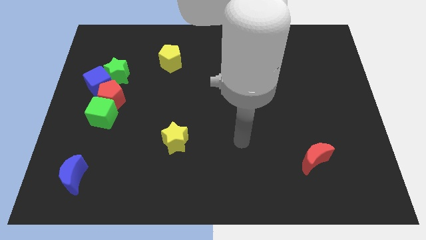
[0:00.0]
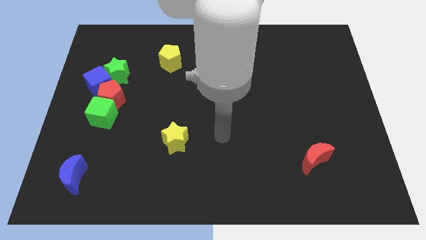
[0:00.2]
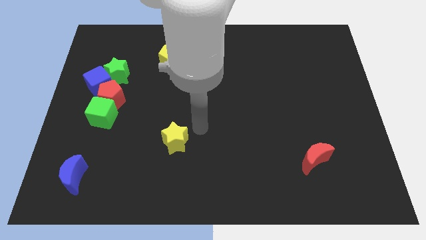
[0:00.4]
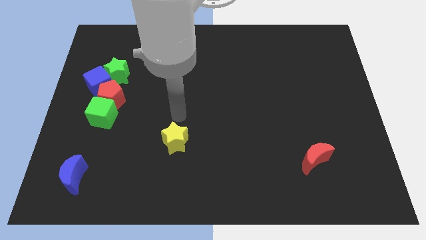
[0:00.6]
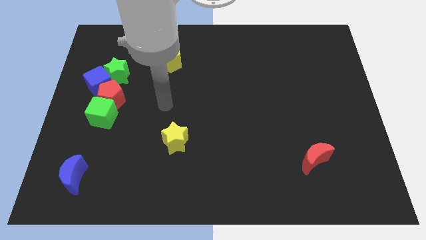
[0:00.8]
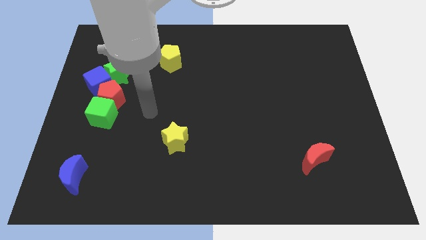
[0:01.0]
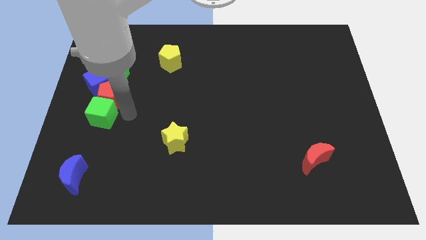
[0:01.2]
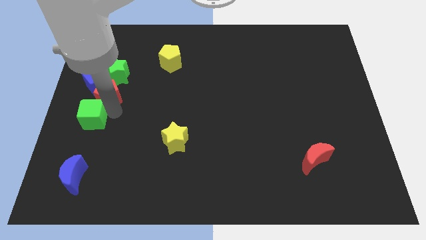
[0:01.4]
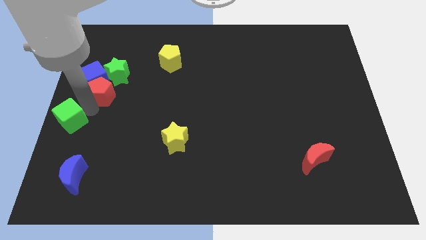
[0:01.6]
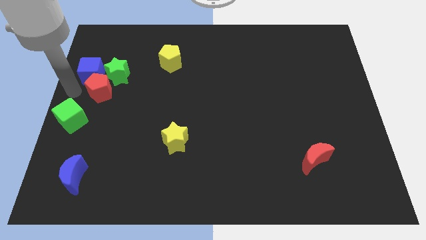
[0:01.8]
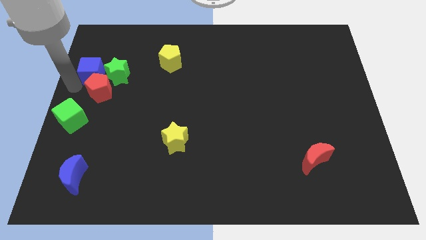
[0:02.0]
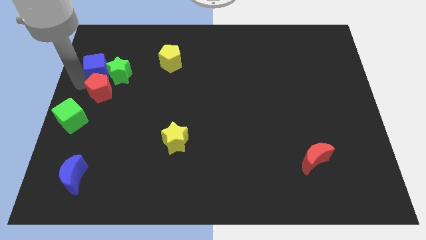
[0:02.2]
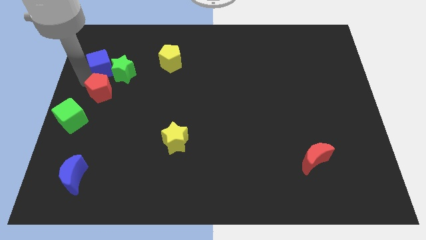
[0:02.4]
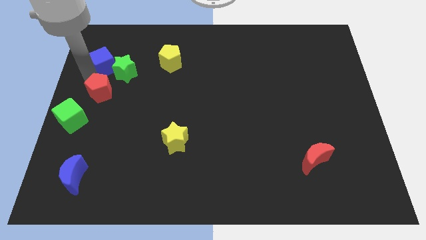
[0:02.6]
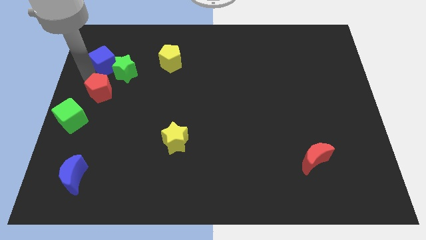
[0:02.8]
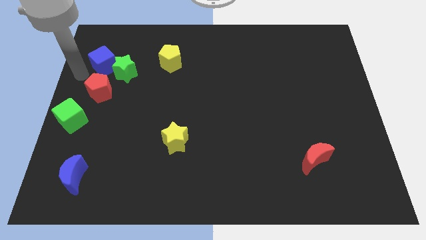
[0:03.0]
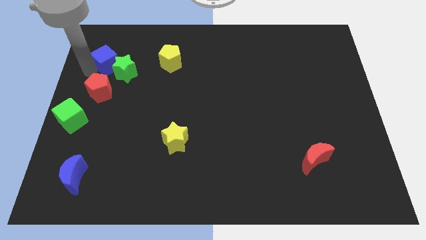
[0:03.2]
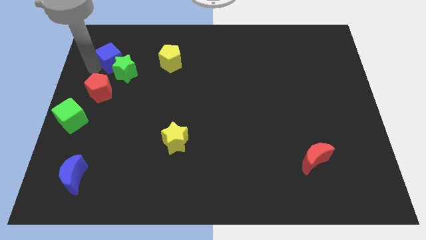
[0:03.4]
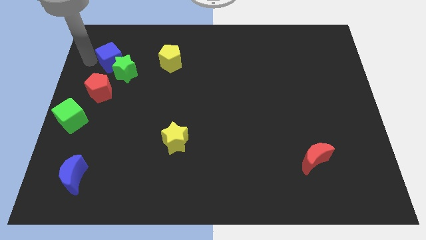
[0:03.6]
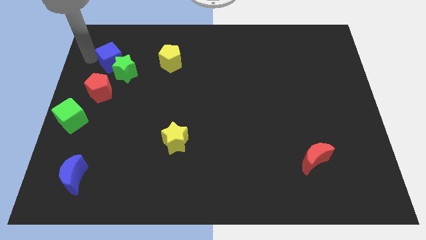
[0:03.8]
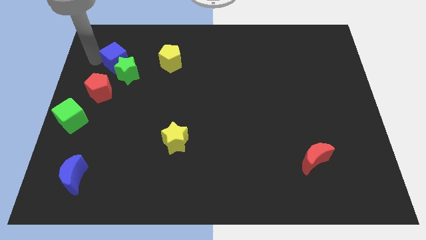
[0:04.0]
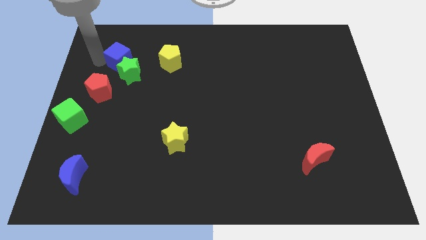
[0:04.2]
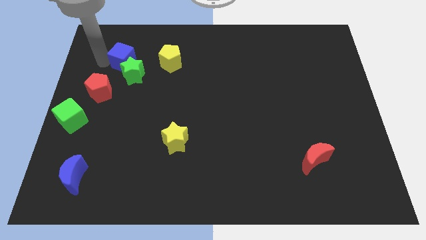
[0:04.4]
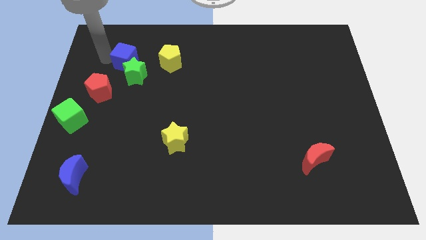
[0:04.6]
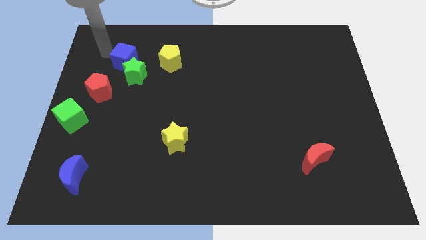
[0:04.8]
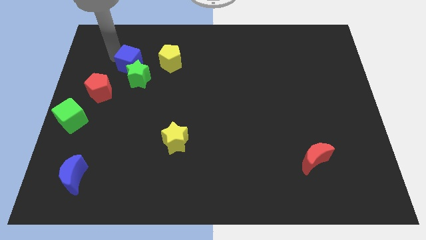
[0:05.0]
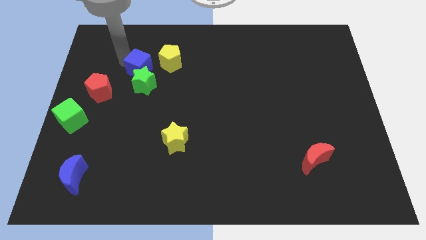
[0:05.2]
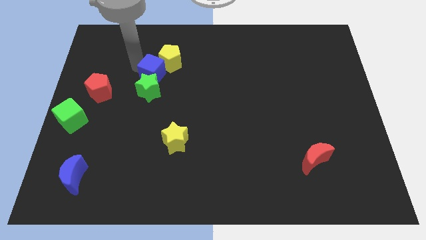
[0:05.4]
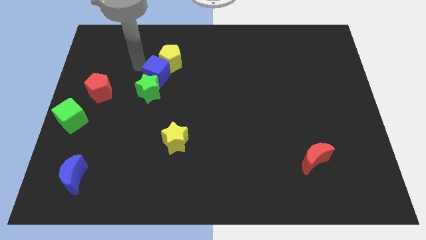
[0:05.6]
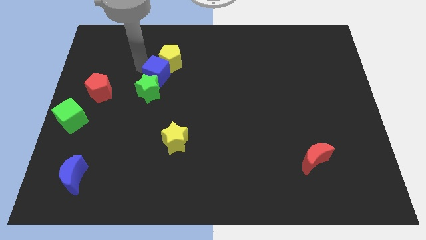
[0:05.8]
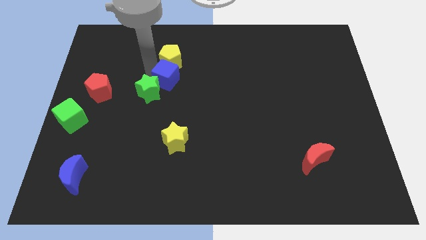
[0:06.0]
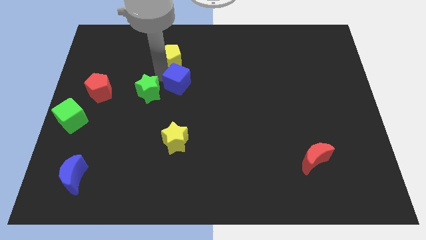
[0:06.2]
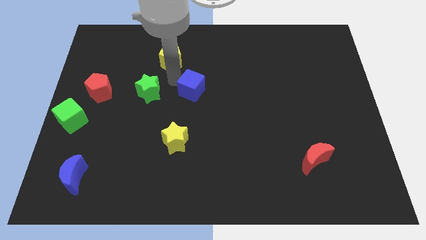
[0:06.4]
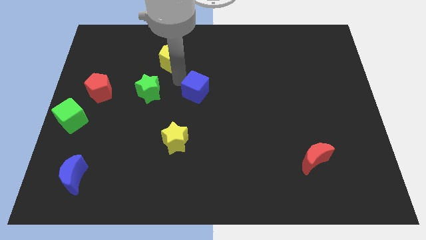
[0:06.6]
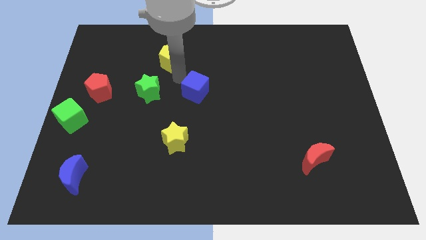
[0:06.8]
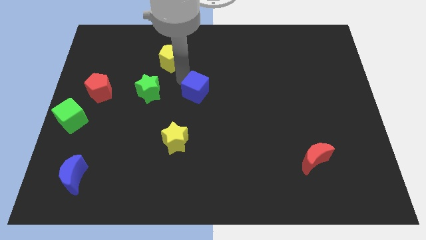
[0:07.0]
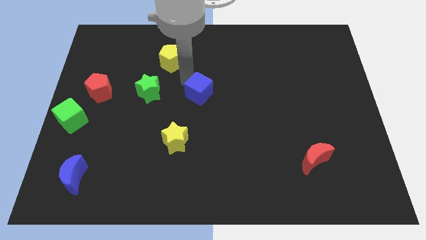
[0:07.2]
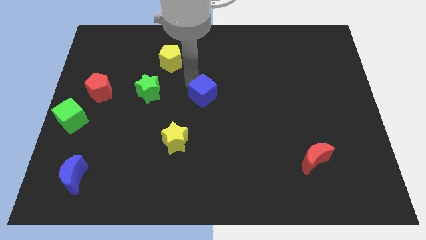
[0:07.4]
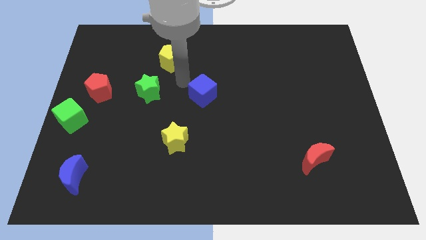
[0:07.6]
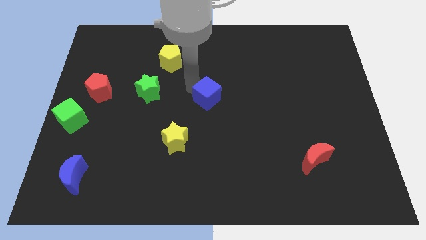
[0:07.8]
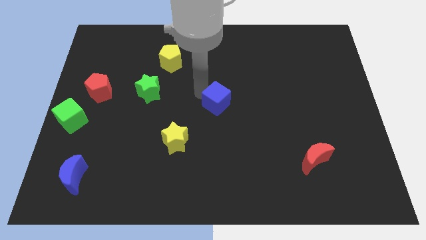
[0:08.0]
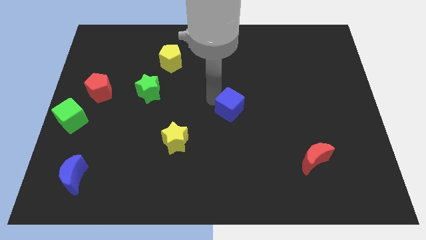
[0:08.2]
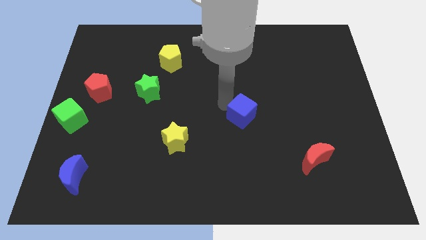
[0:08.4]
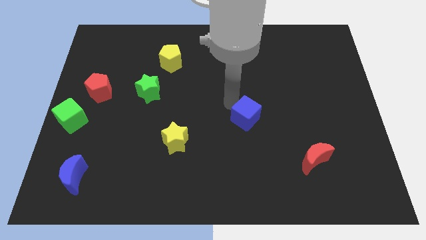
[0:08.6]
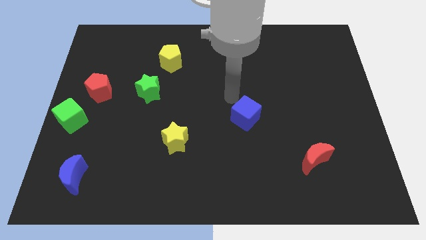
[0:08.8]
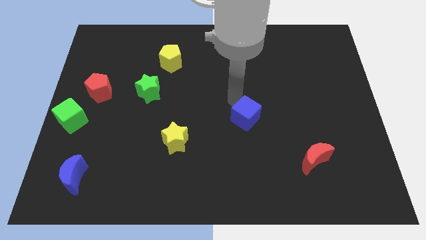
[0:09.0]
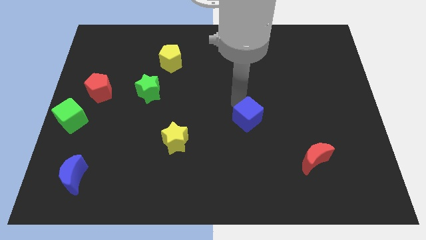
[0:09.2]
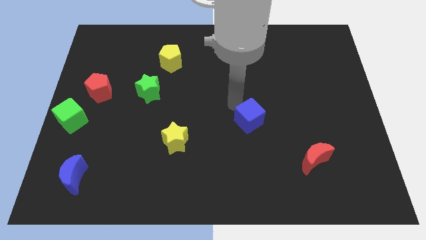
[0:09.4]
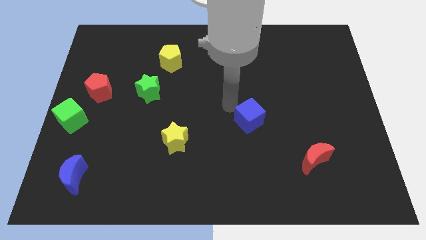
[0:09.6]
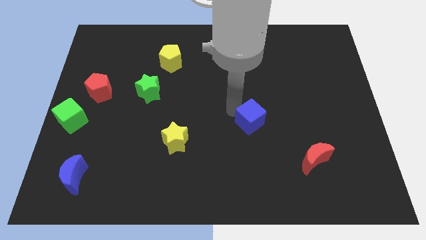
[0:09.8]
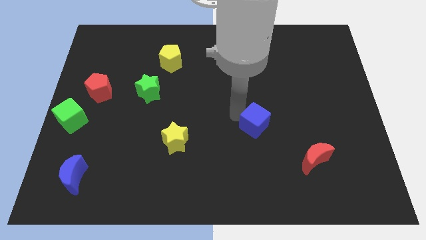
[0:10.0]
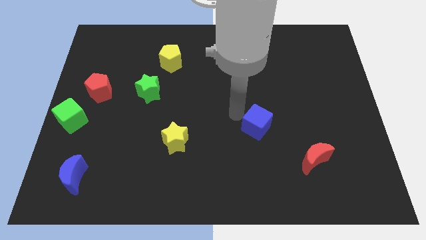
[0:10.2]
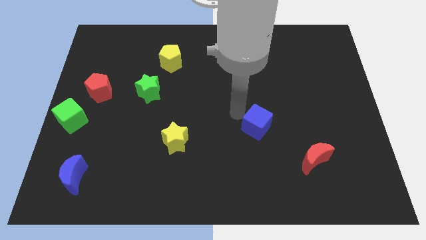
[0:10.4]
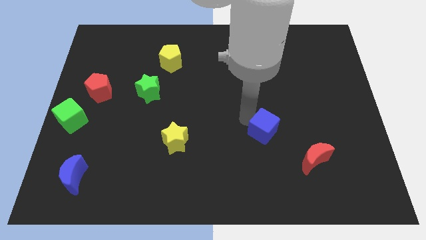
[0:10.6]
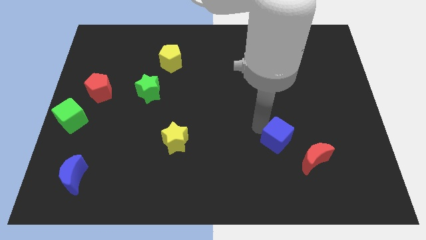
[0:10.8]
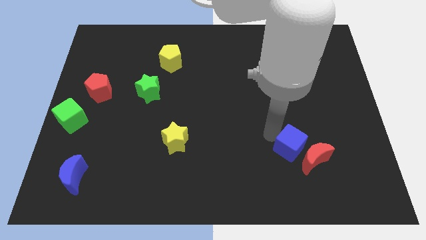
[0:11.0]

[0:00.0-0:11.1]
put the blue cube towards the red moon

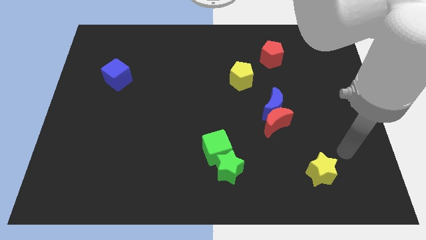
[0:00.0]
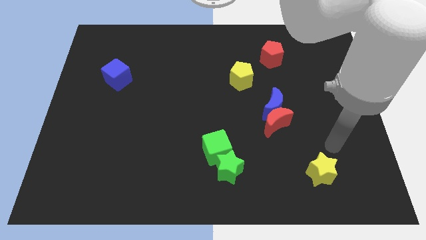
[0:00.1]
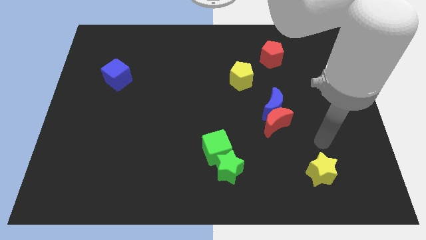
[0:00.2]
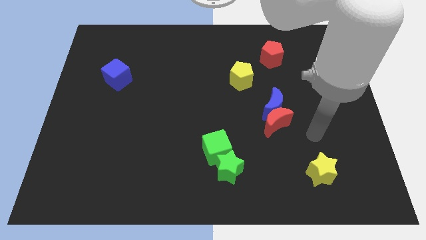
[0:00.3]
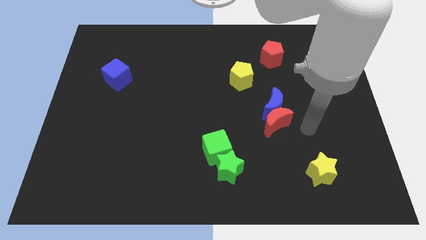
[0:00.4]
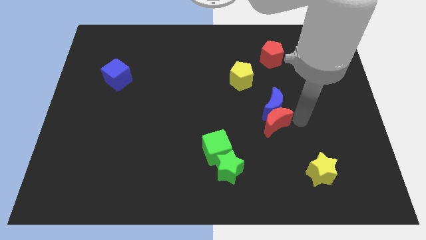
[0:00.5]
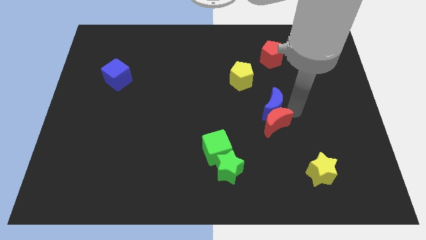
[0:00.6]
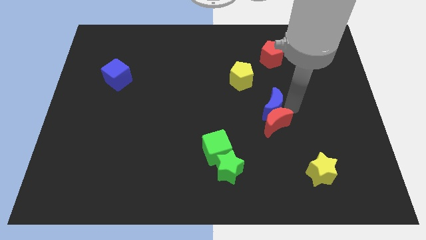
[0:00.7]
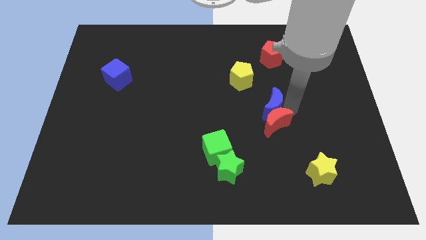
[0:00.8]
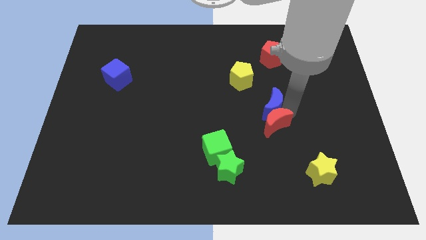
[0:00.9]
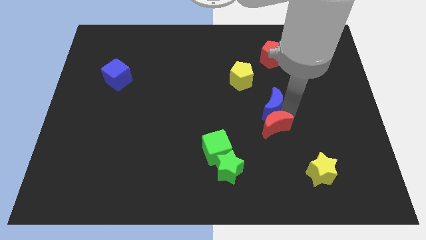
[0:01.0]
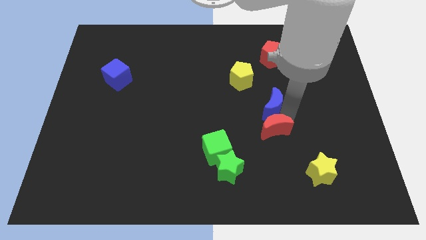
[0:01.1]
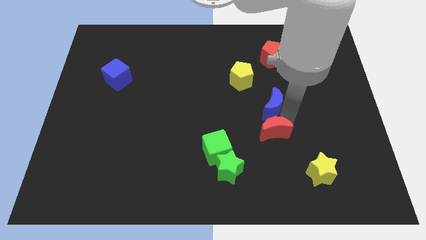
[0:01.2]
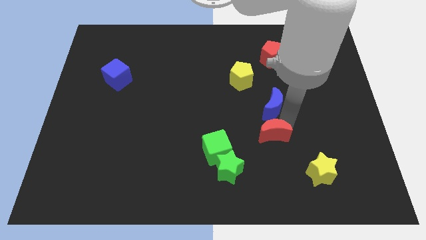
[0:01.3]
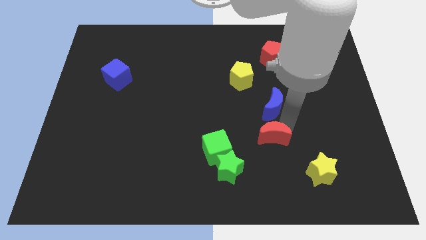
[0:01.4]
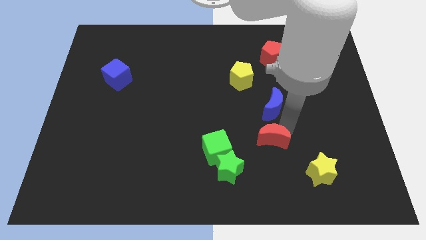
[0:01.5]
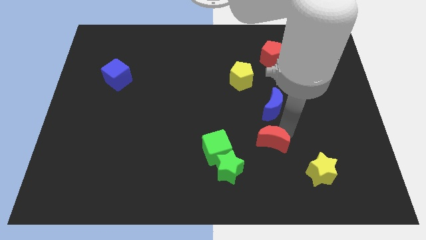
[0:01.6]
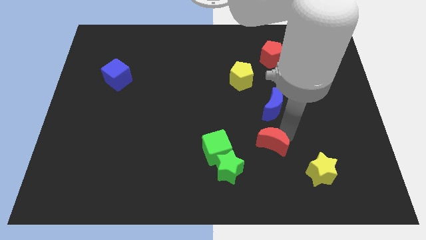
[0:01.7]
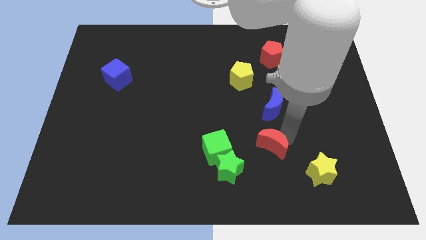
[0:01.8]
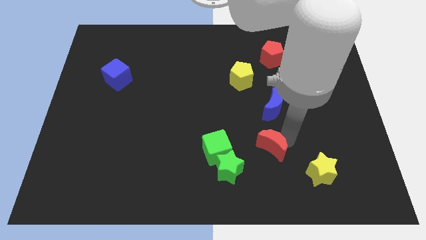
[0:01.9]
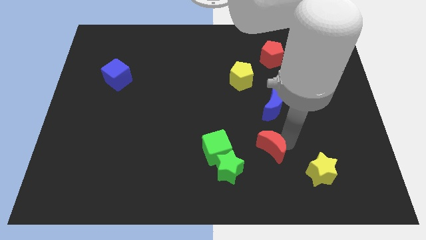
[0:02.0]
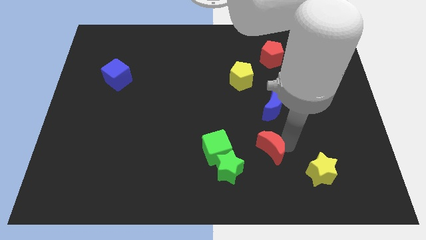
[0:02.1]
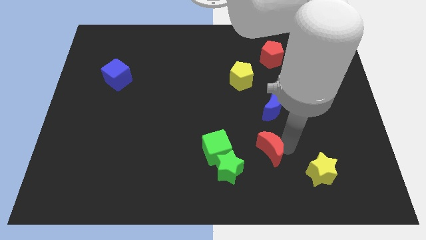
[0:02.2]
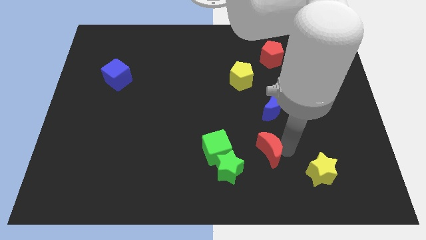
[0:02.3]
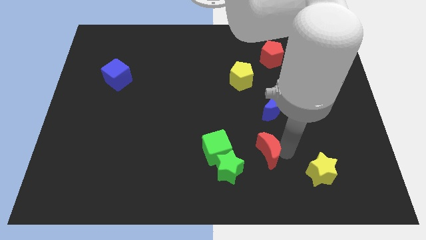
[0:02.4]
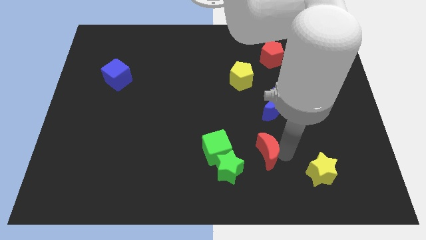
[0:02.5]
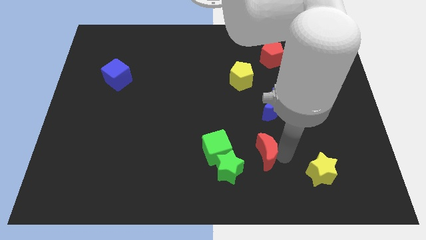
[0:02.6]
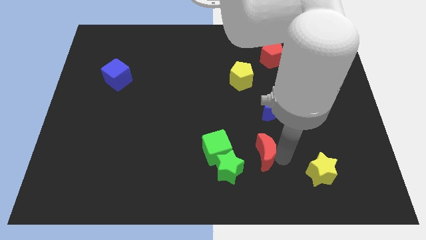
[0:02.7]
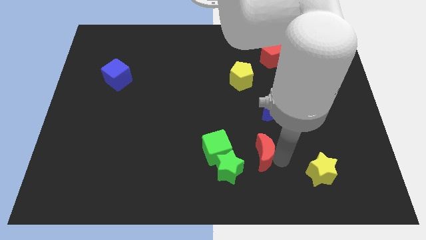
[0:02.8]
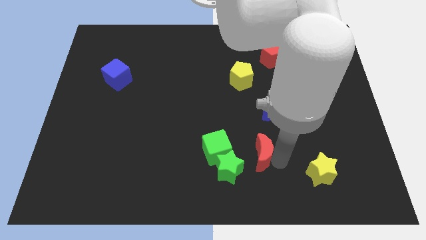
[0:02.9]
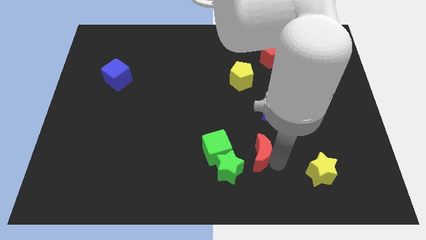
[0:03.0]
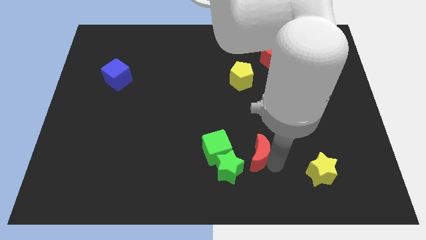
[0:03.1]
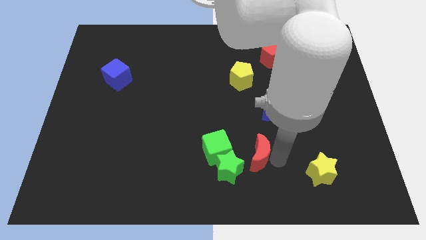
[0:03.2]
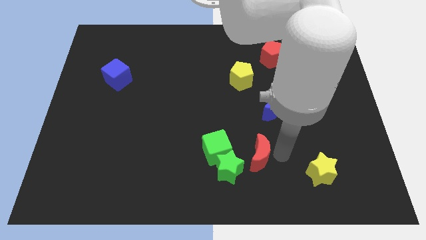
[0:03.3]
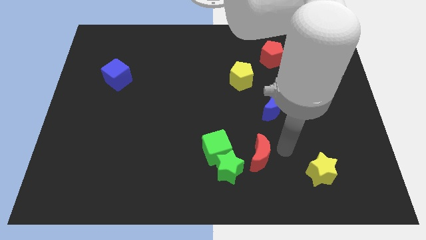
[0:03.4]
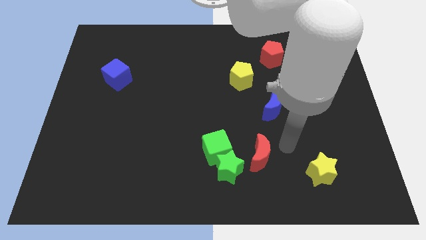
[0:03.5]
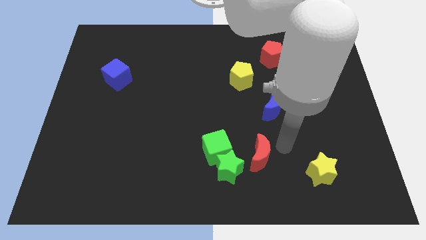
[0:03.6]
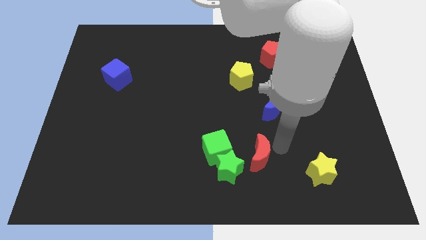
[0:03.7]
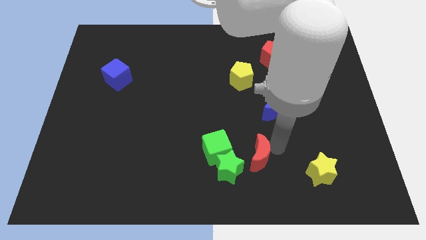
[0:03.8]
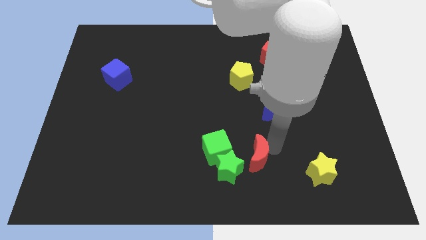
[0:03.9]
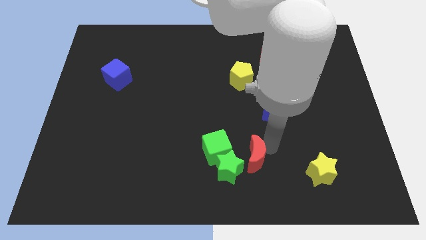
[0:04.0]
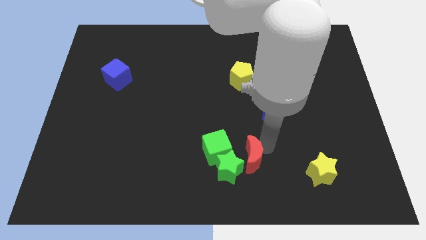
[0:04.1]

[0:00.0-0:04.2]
push the red moon close to the green star
